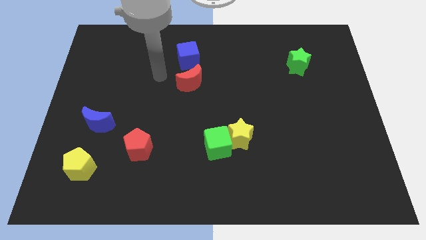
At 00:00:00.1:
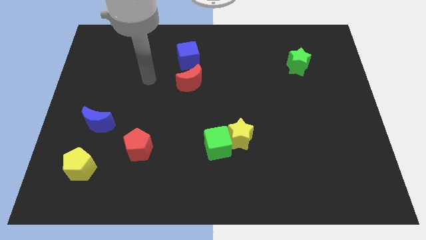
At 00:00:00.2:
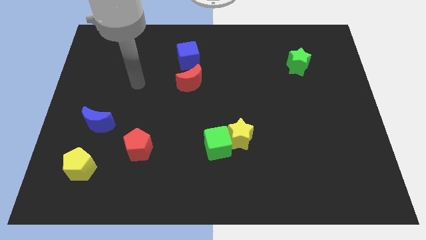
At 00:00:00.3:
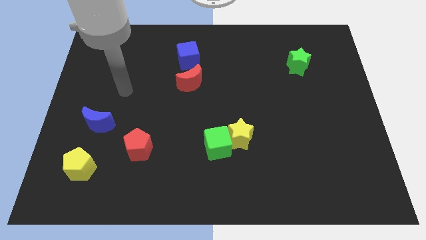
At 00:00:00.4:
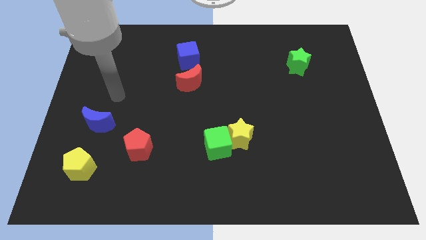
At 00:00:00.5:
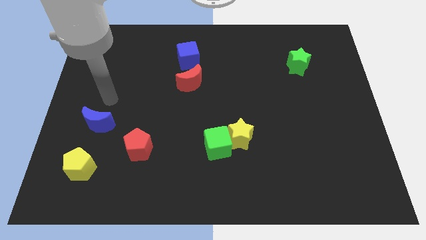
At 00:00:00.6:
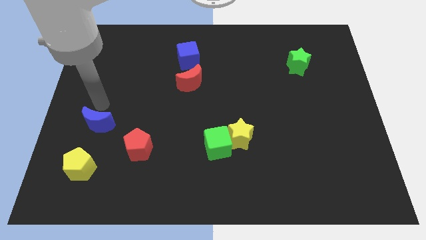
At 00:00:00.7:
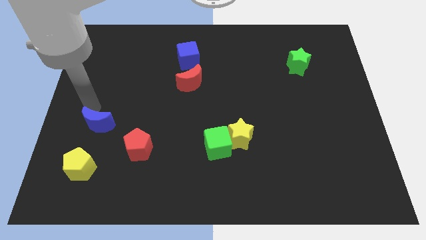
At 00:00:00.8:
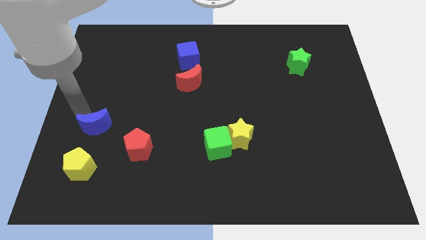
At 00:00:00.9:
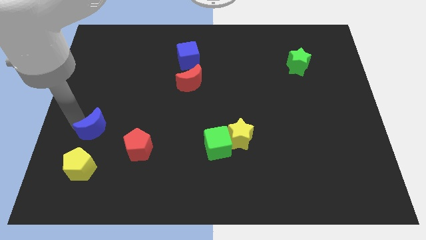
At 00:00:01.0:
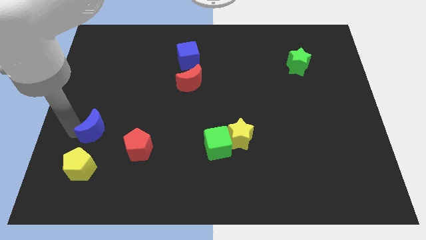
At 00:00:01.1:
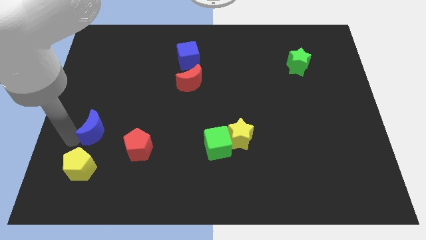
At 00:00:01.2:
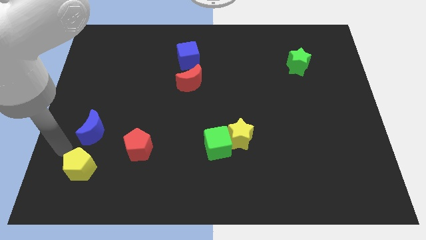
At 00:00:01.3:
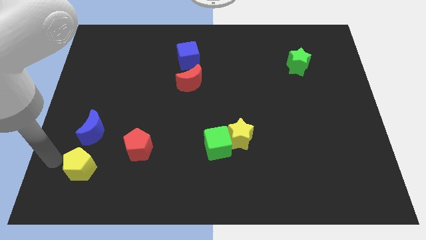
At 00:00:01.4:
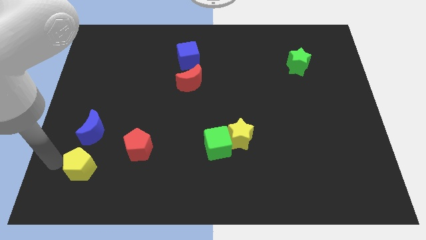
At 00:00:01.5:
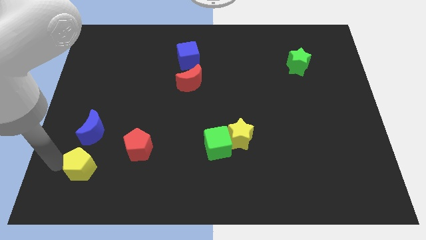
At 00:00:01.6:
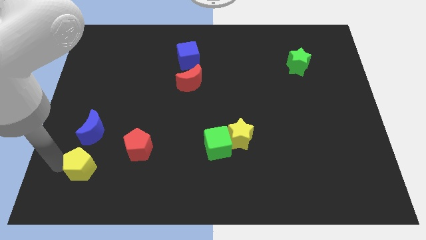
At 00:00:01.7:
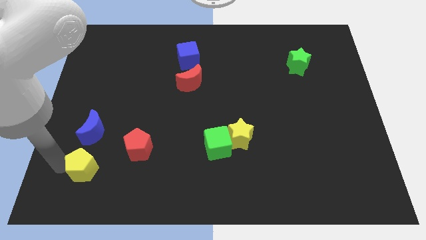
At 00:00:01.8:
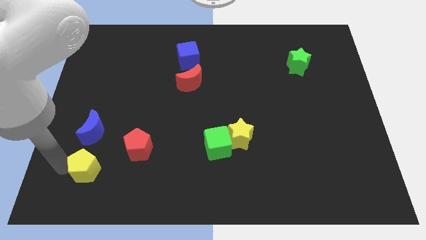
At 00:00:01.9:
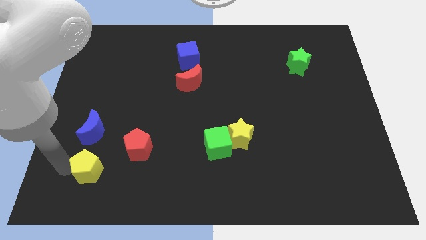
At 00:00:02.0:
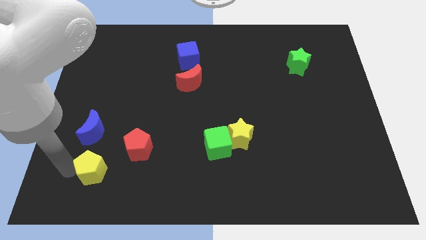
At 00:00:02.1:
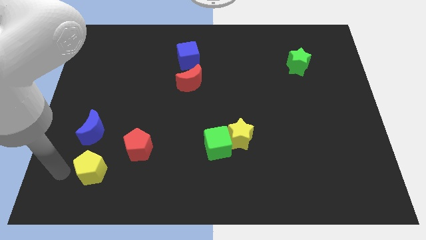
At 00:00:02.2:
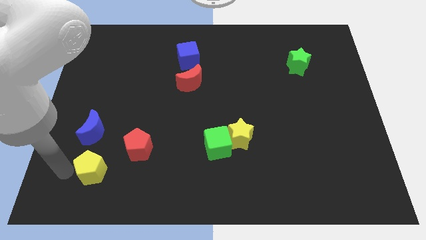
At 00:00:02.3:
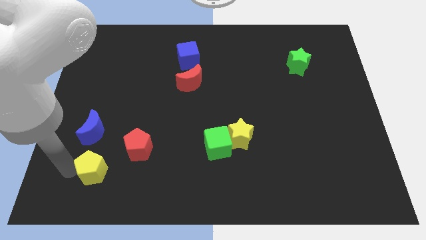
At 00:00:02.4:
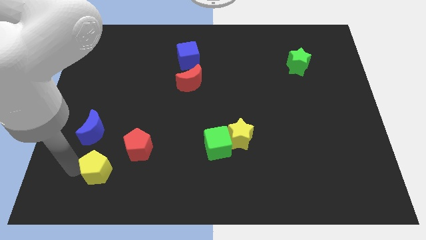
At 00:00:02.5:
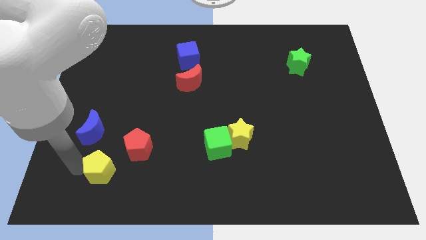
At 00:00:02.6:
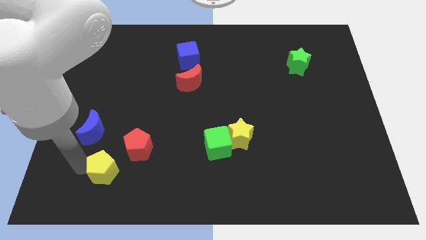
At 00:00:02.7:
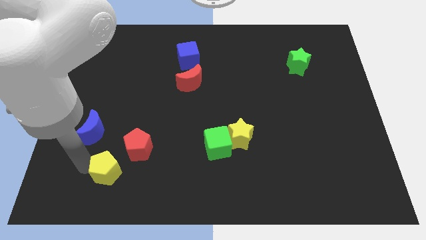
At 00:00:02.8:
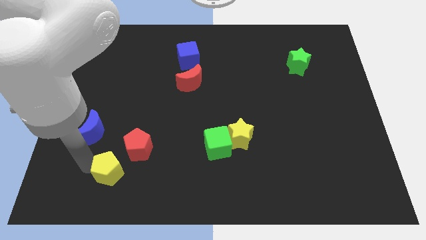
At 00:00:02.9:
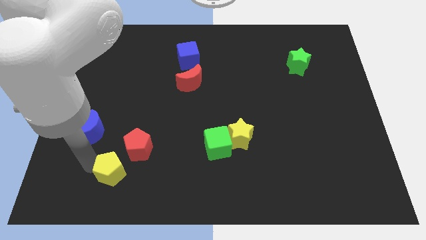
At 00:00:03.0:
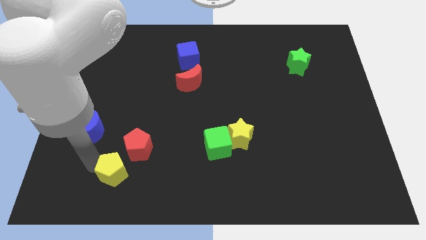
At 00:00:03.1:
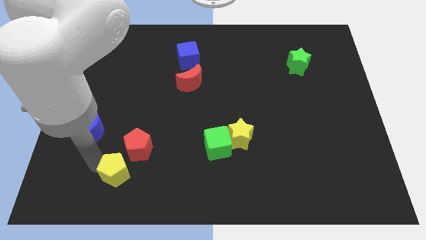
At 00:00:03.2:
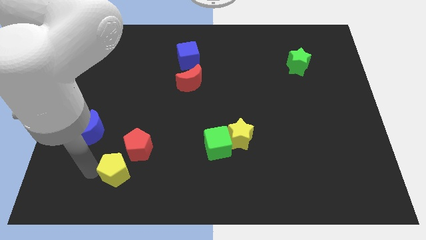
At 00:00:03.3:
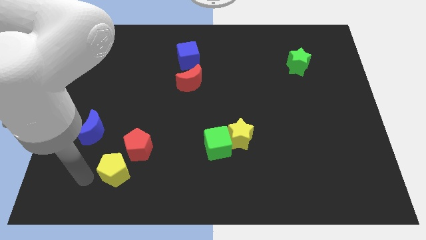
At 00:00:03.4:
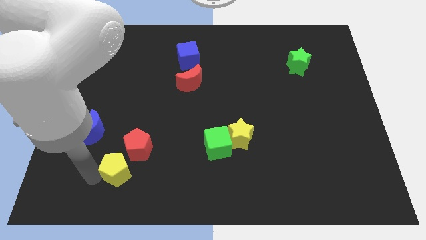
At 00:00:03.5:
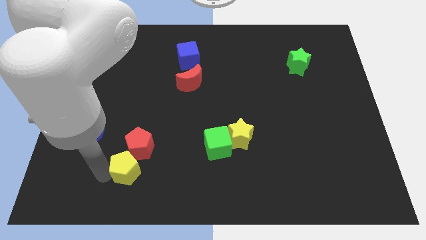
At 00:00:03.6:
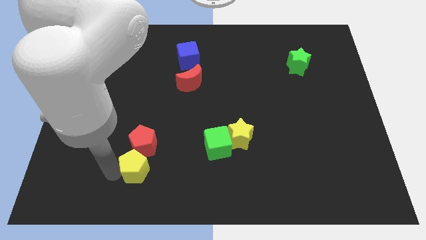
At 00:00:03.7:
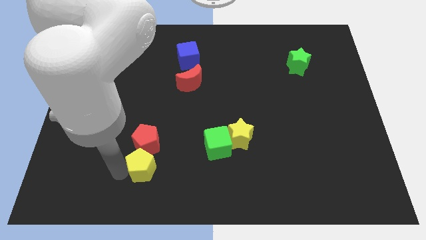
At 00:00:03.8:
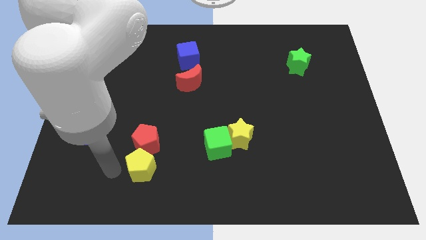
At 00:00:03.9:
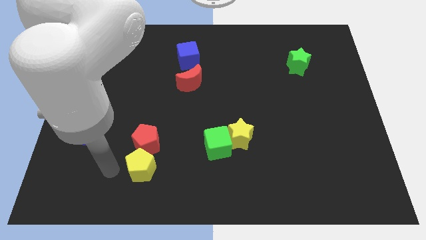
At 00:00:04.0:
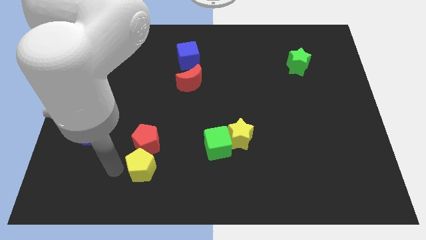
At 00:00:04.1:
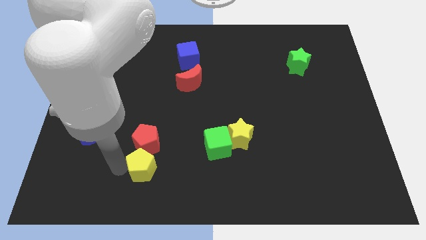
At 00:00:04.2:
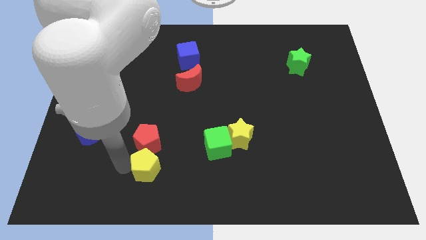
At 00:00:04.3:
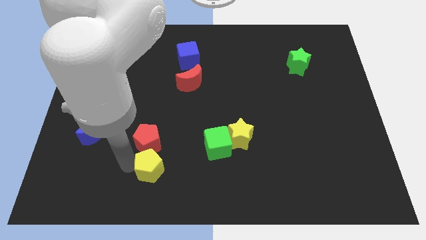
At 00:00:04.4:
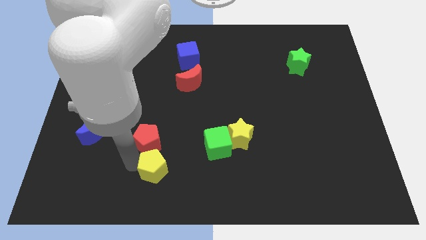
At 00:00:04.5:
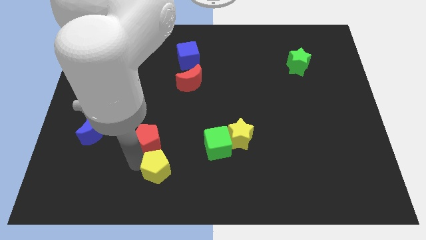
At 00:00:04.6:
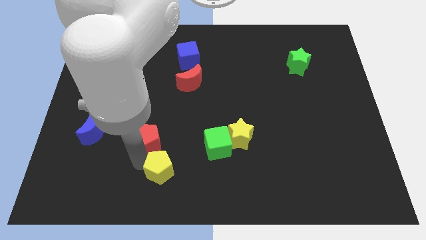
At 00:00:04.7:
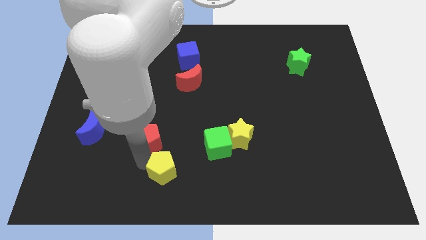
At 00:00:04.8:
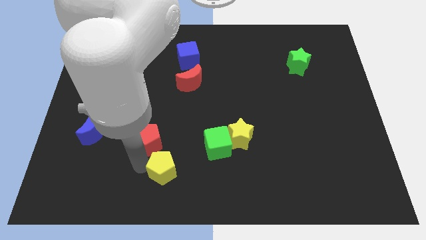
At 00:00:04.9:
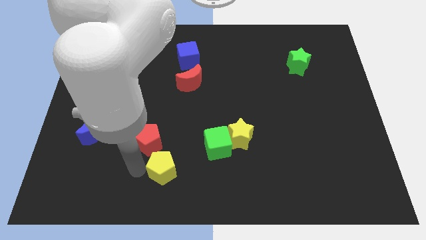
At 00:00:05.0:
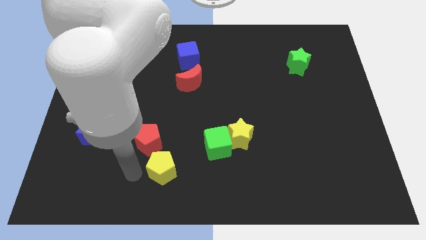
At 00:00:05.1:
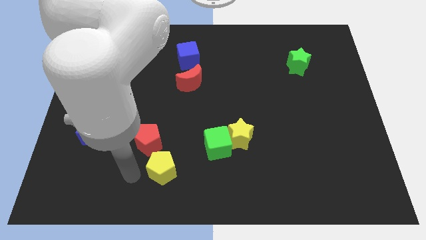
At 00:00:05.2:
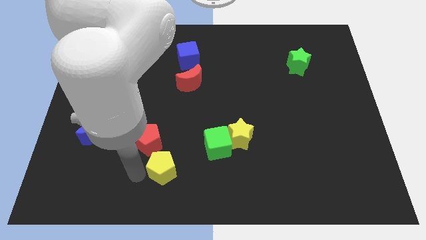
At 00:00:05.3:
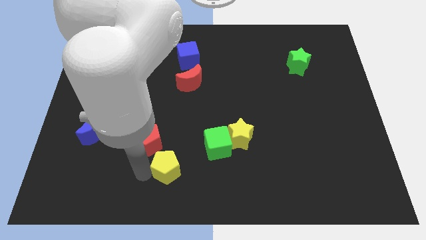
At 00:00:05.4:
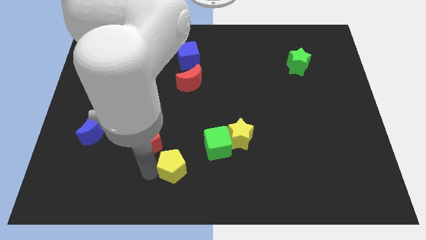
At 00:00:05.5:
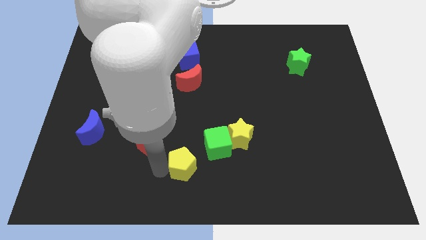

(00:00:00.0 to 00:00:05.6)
move the yellow pentagon to the right

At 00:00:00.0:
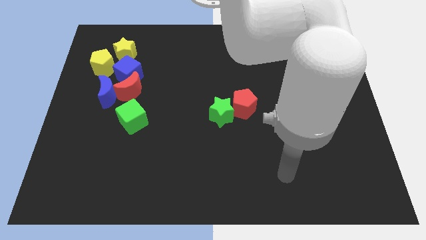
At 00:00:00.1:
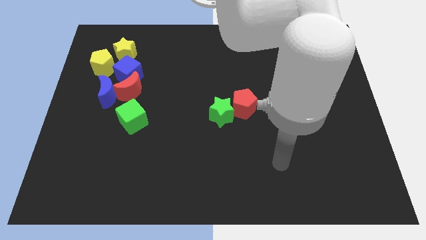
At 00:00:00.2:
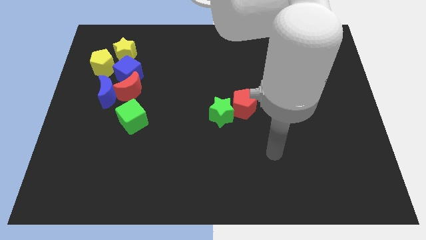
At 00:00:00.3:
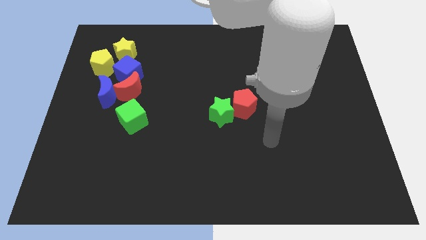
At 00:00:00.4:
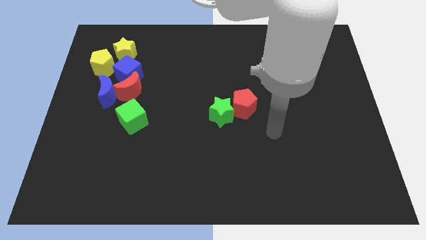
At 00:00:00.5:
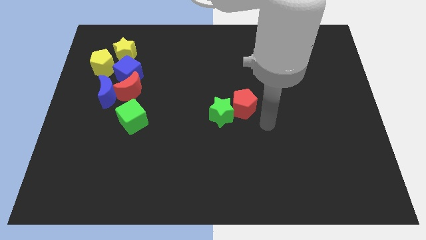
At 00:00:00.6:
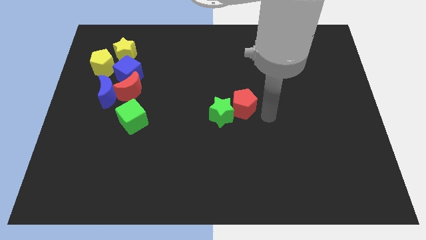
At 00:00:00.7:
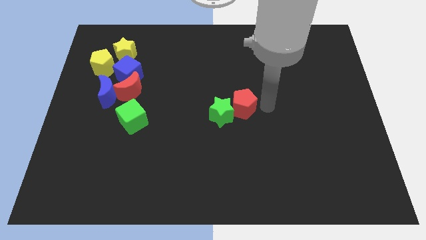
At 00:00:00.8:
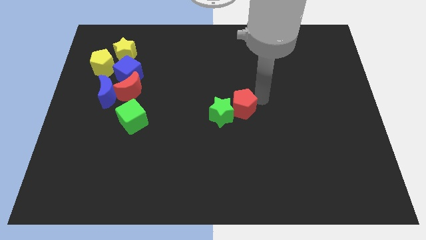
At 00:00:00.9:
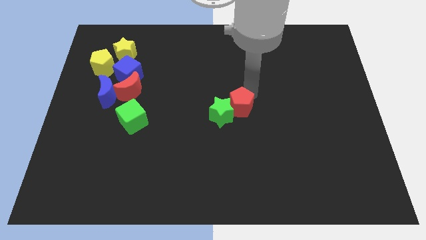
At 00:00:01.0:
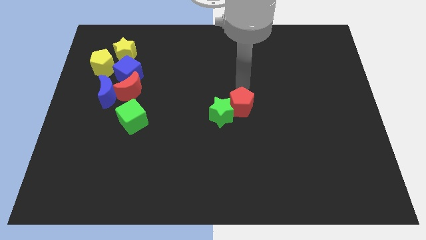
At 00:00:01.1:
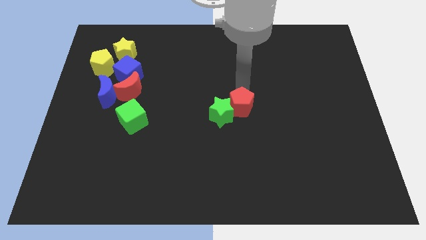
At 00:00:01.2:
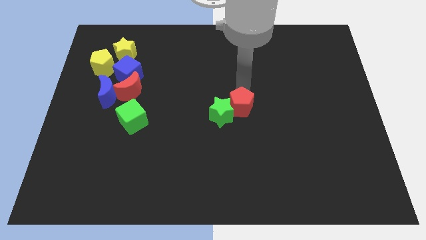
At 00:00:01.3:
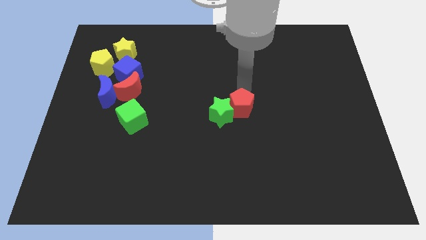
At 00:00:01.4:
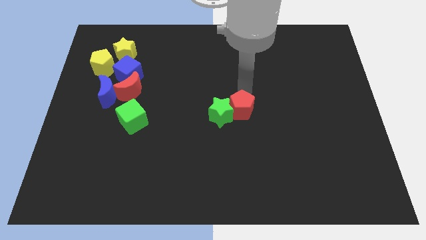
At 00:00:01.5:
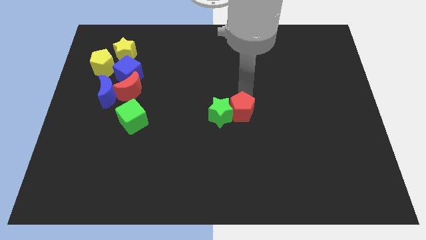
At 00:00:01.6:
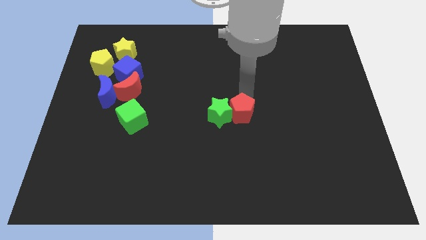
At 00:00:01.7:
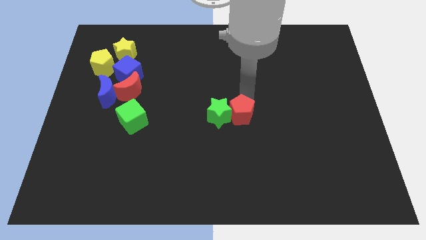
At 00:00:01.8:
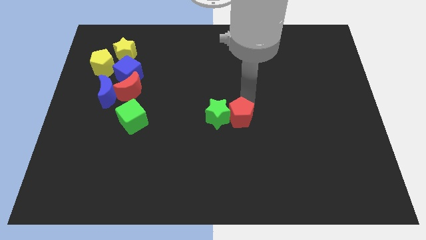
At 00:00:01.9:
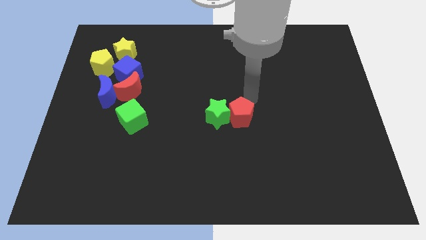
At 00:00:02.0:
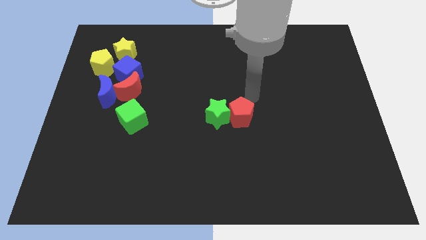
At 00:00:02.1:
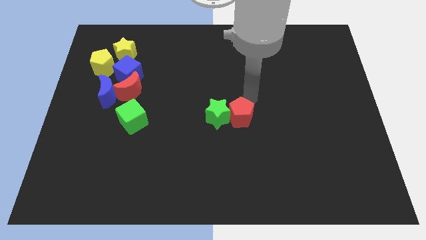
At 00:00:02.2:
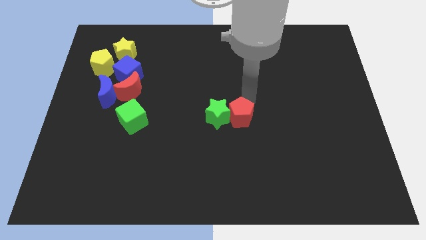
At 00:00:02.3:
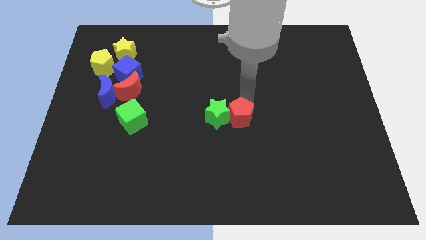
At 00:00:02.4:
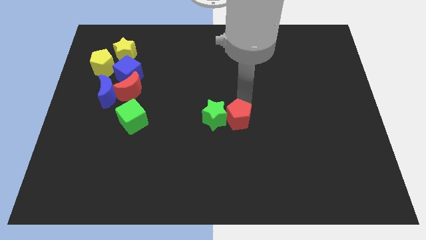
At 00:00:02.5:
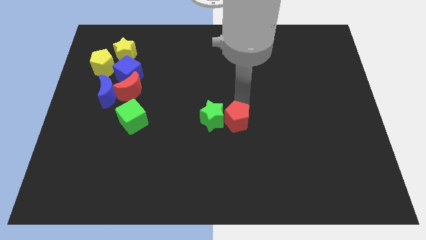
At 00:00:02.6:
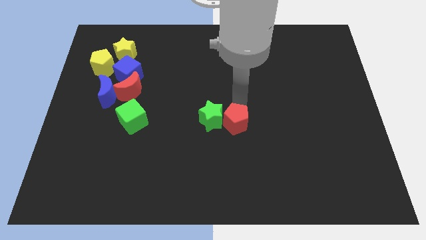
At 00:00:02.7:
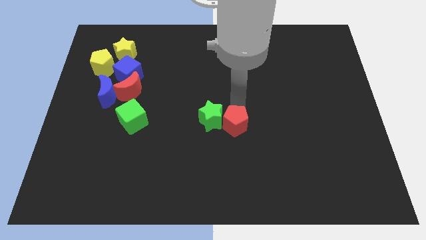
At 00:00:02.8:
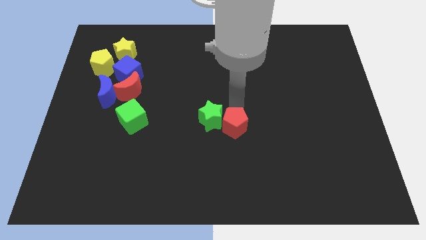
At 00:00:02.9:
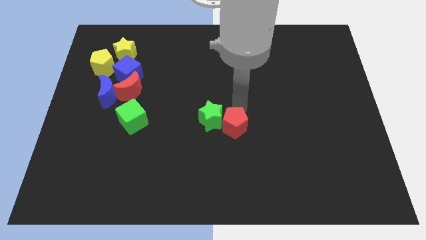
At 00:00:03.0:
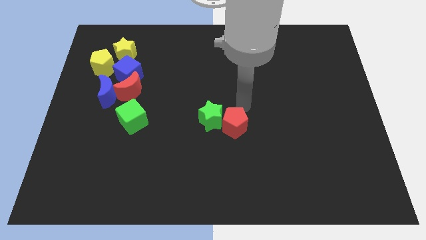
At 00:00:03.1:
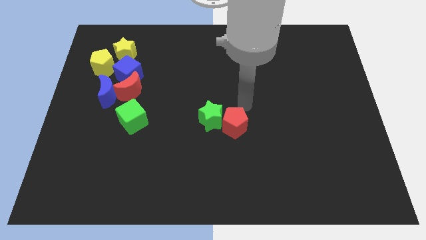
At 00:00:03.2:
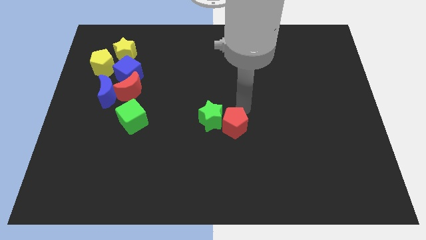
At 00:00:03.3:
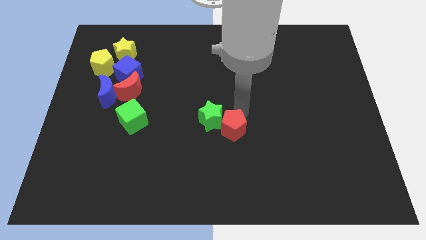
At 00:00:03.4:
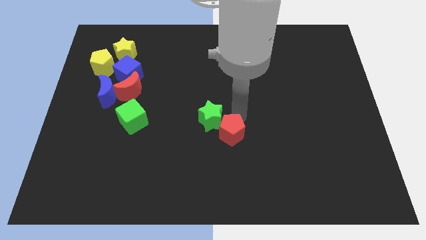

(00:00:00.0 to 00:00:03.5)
slide the red pentagon downwards and left diagonally slightly
